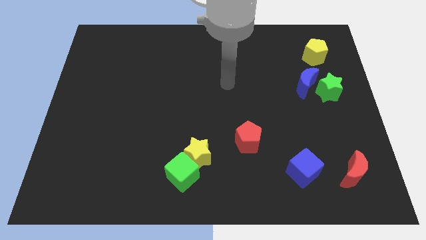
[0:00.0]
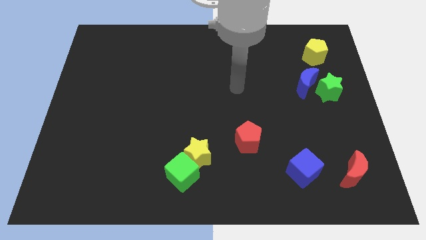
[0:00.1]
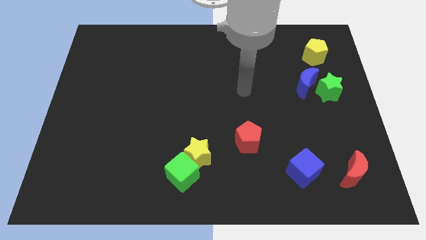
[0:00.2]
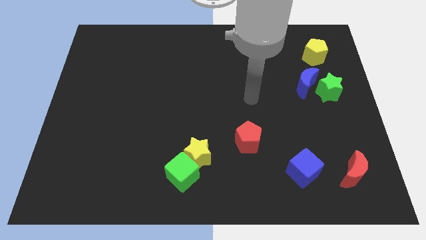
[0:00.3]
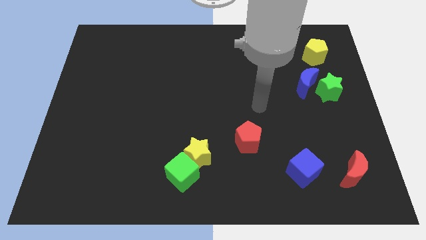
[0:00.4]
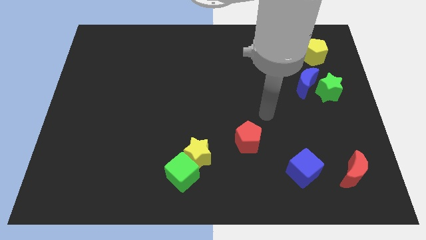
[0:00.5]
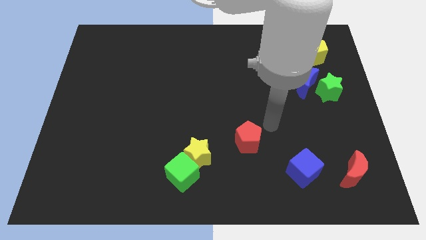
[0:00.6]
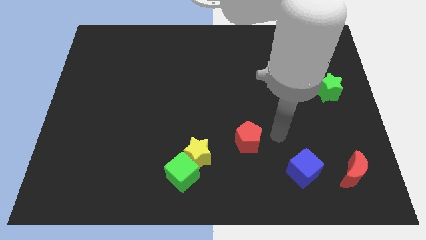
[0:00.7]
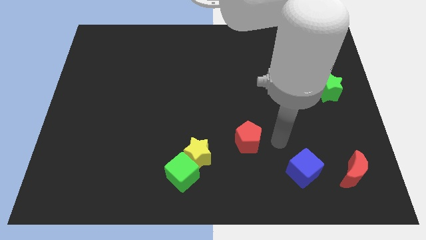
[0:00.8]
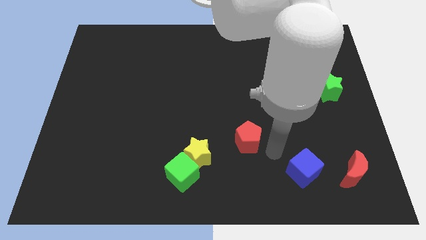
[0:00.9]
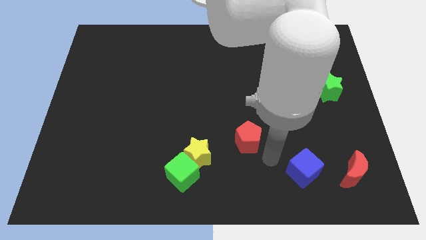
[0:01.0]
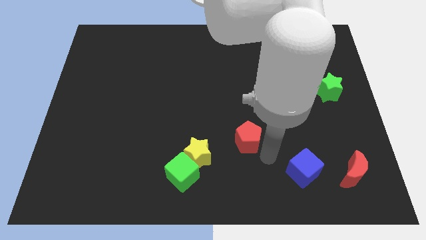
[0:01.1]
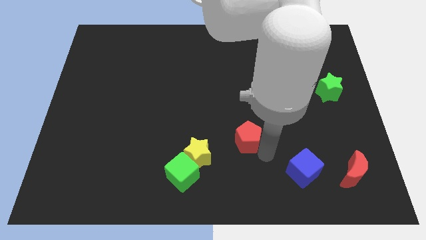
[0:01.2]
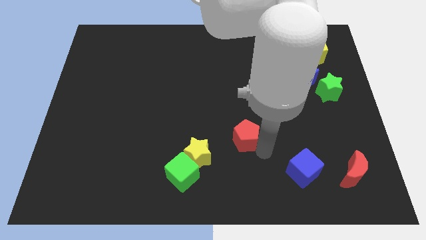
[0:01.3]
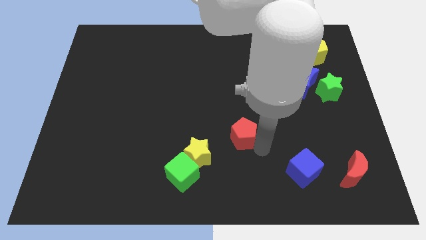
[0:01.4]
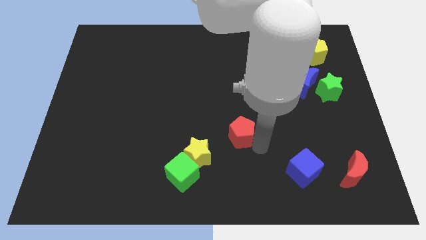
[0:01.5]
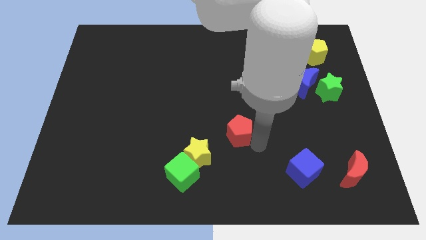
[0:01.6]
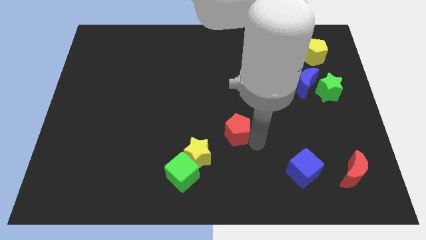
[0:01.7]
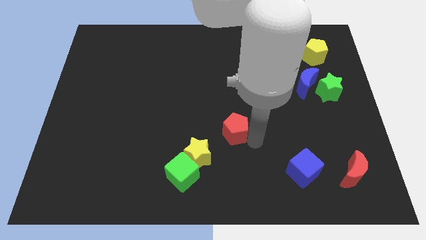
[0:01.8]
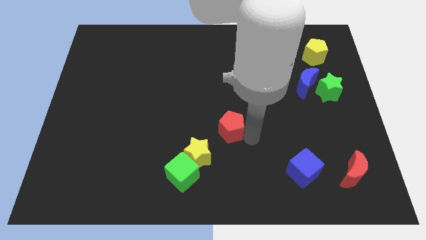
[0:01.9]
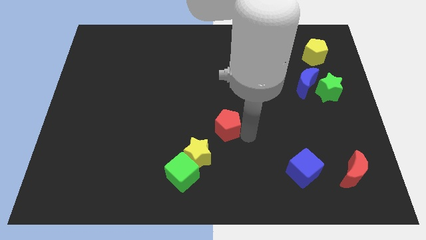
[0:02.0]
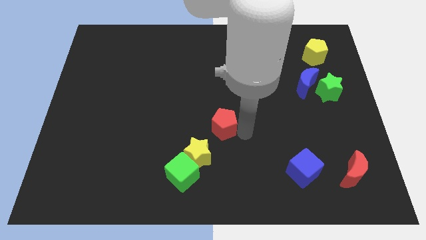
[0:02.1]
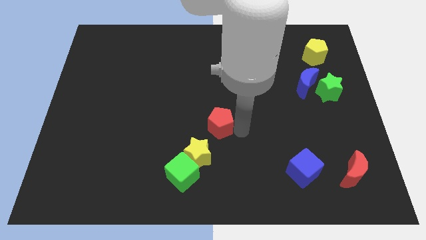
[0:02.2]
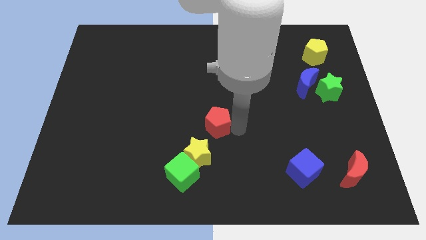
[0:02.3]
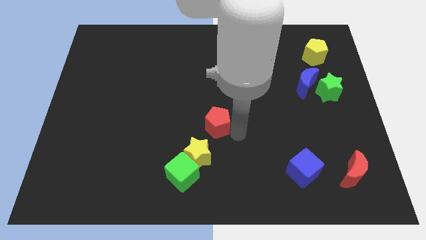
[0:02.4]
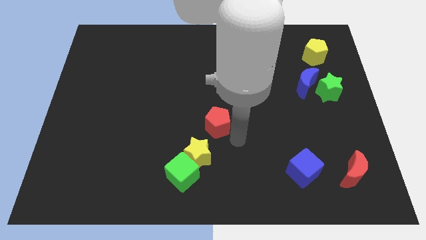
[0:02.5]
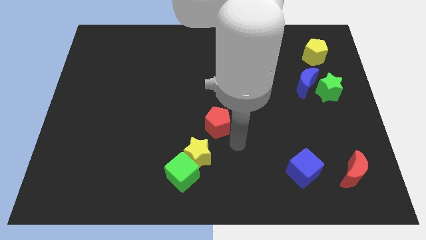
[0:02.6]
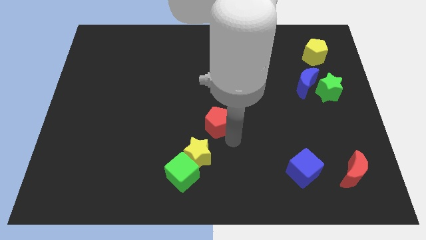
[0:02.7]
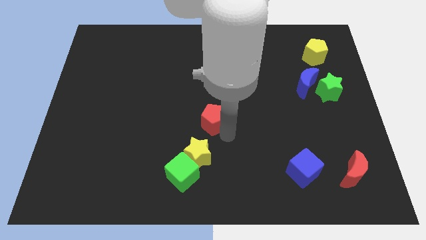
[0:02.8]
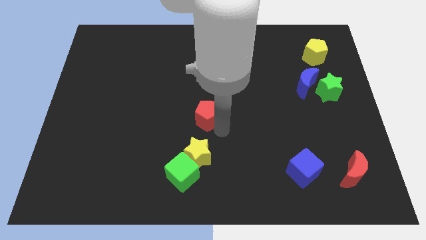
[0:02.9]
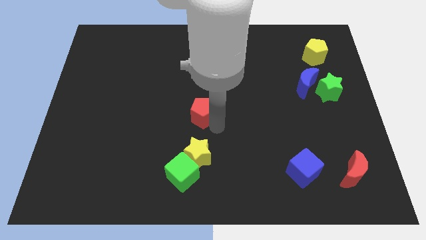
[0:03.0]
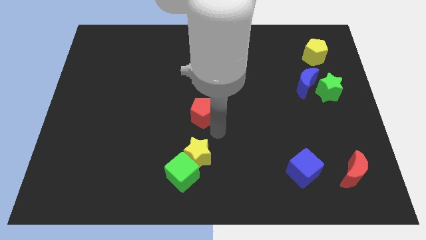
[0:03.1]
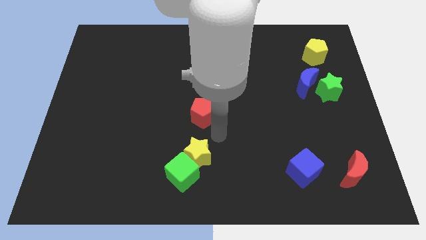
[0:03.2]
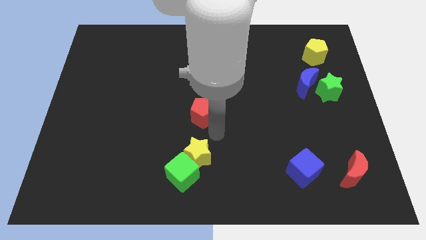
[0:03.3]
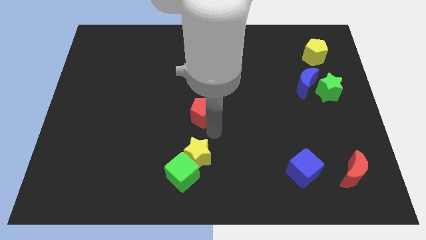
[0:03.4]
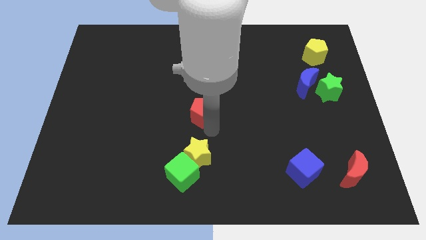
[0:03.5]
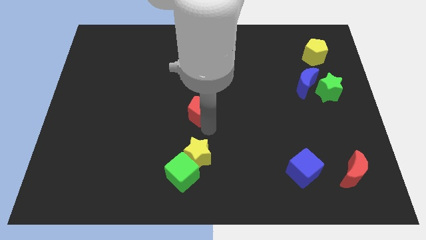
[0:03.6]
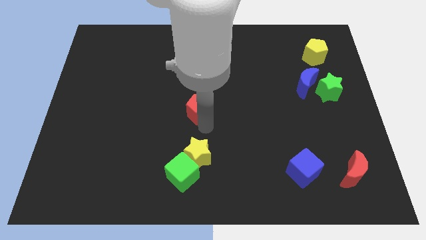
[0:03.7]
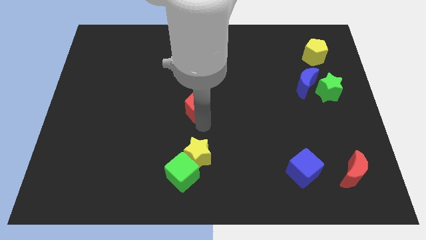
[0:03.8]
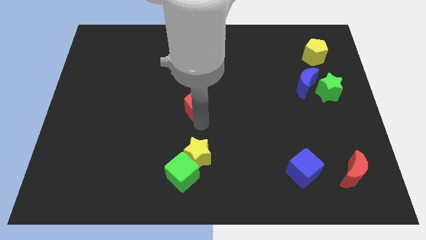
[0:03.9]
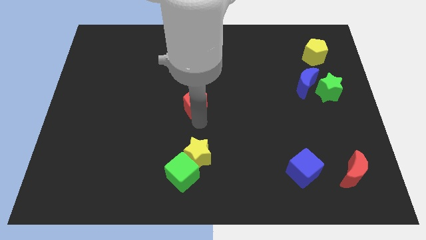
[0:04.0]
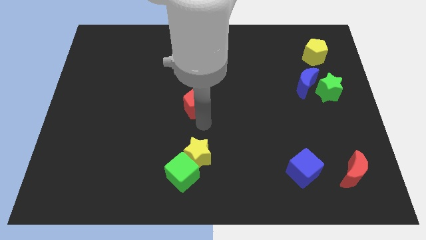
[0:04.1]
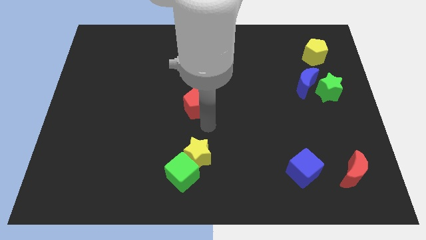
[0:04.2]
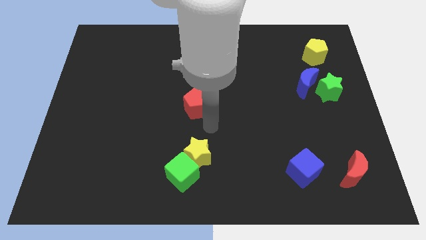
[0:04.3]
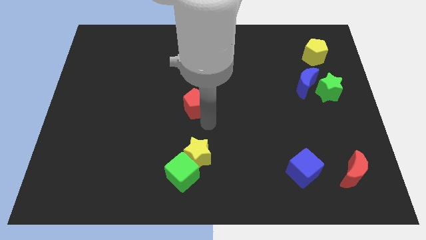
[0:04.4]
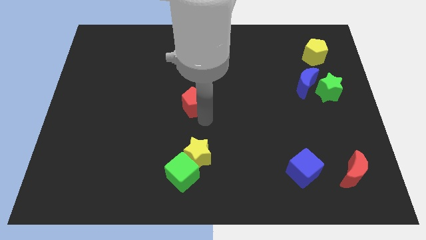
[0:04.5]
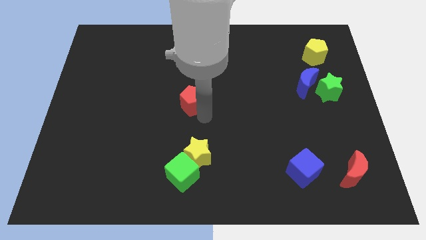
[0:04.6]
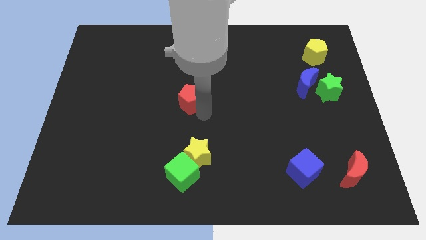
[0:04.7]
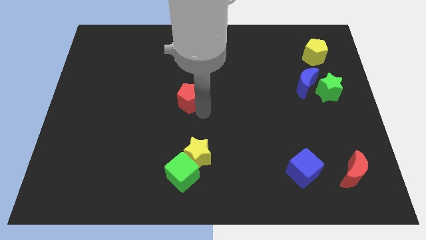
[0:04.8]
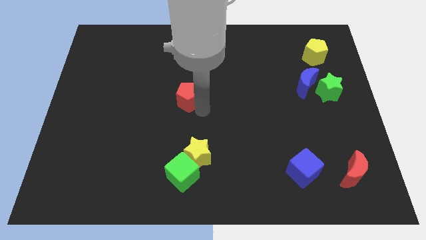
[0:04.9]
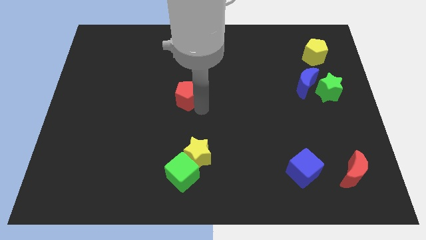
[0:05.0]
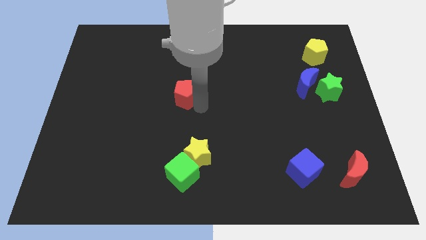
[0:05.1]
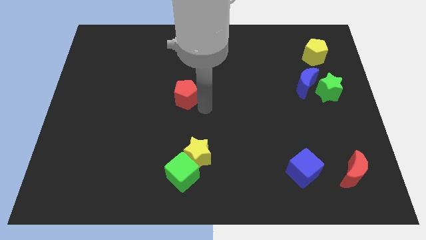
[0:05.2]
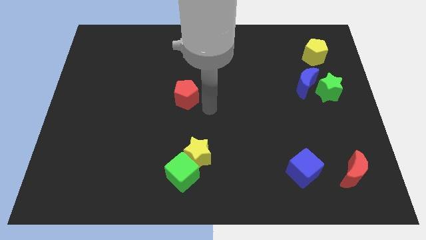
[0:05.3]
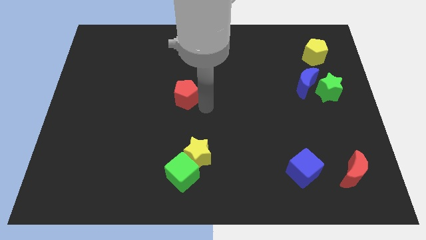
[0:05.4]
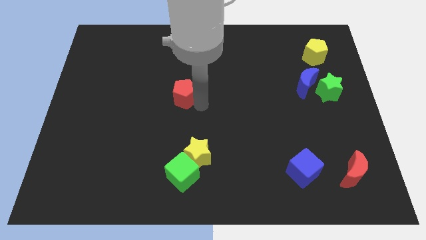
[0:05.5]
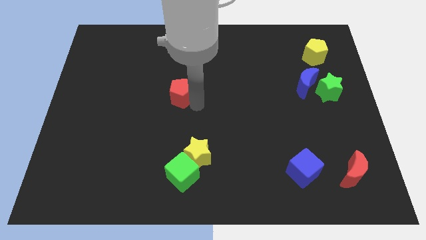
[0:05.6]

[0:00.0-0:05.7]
slide the red pentagon up and left diagonally

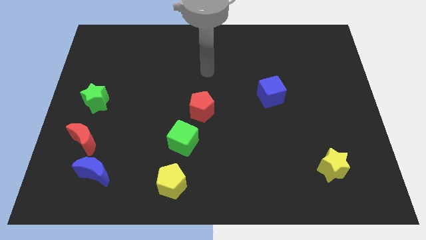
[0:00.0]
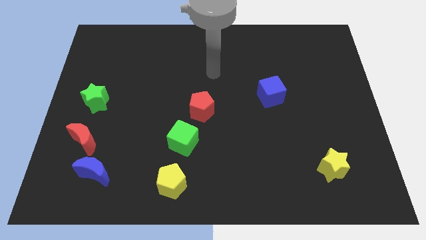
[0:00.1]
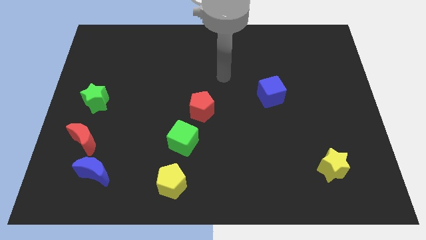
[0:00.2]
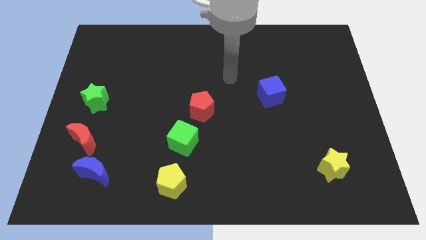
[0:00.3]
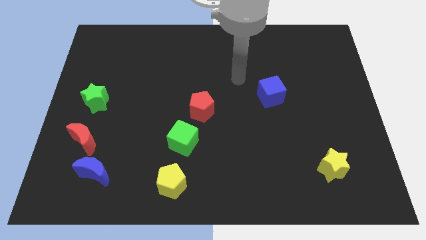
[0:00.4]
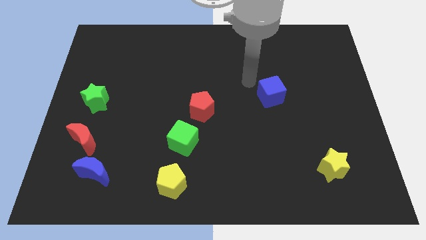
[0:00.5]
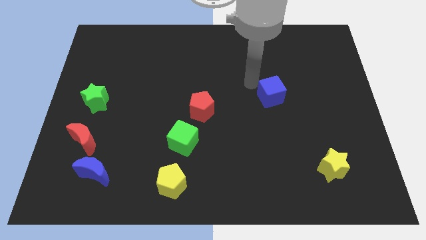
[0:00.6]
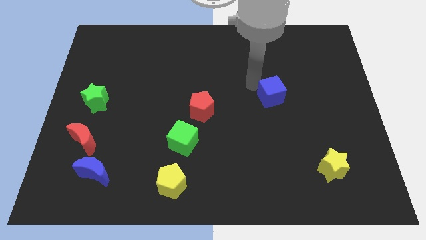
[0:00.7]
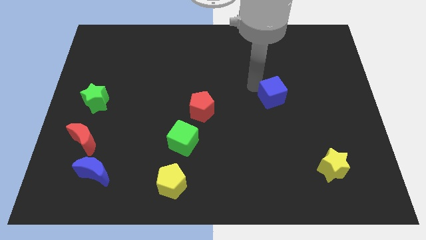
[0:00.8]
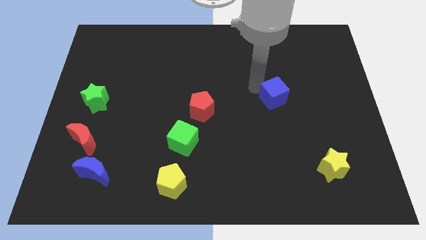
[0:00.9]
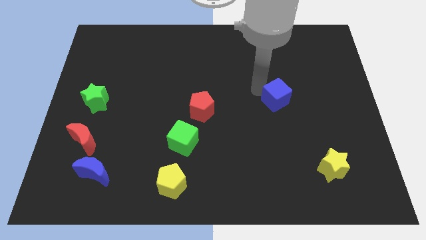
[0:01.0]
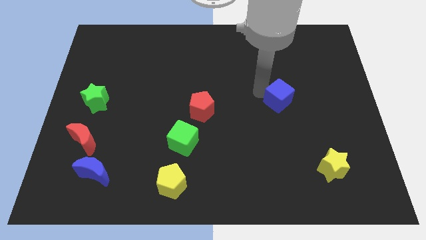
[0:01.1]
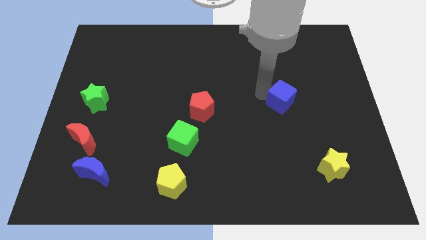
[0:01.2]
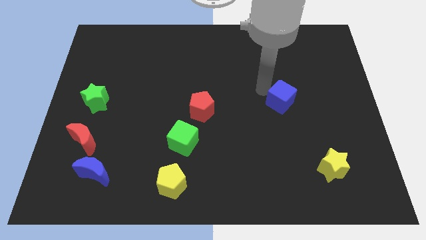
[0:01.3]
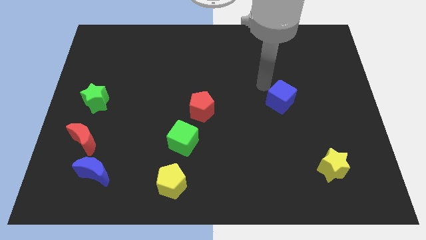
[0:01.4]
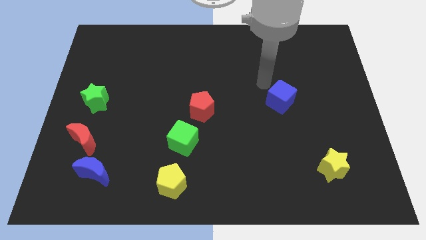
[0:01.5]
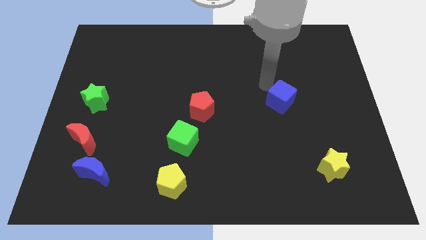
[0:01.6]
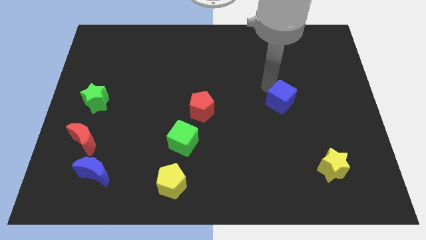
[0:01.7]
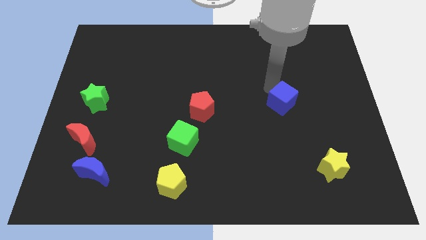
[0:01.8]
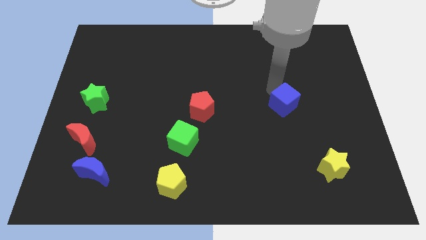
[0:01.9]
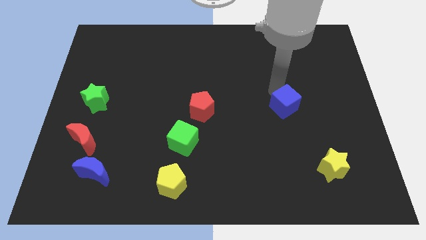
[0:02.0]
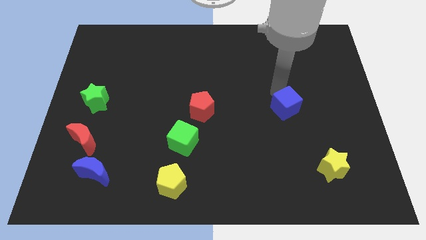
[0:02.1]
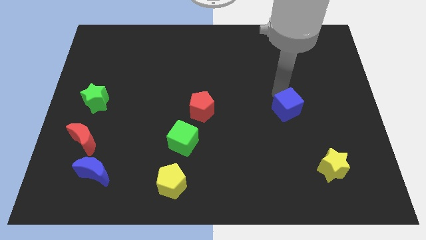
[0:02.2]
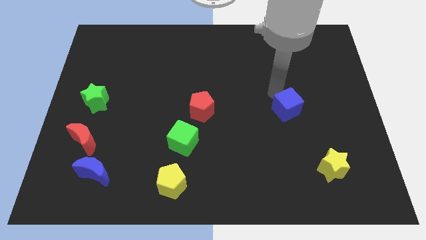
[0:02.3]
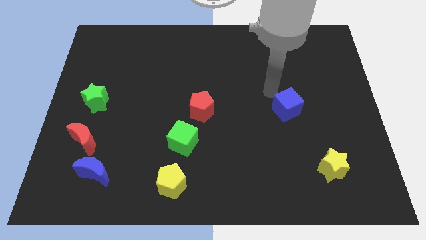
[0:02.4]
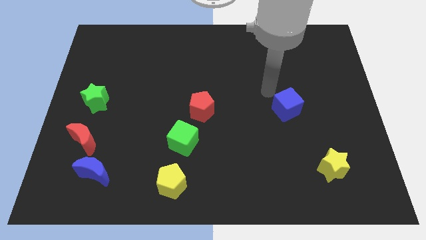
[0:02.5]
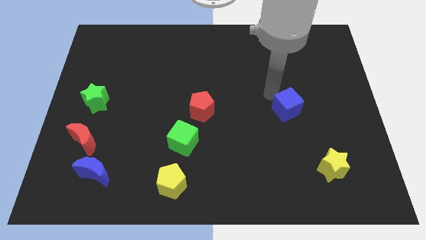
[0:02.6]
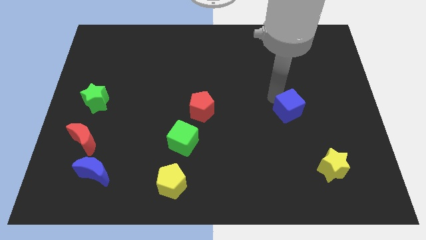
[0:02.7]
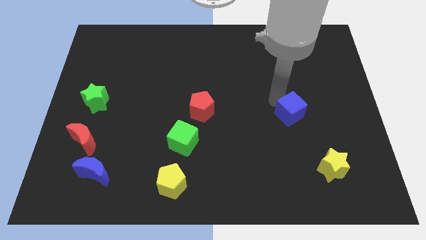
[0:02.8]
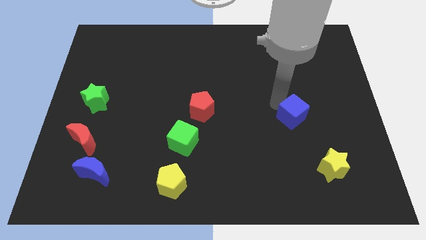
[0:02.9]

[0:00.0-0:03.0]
move the blue cube downwards and then to the right slightly
